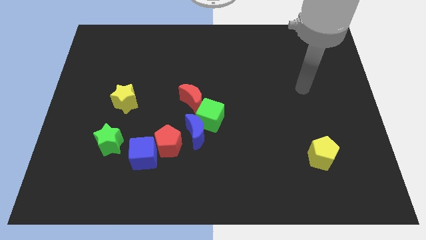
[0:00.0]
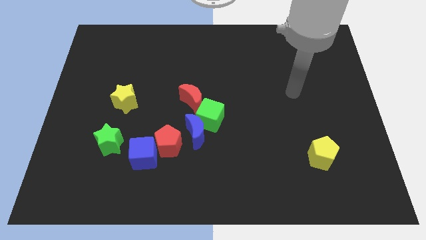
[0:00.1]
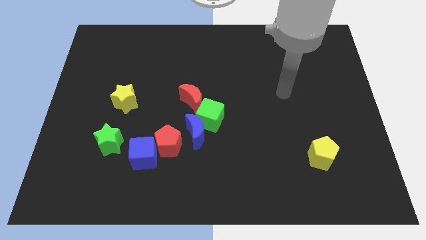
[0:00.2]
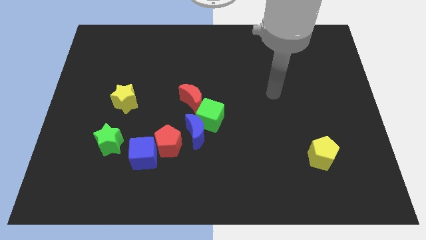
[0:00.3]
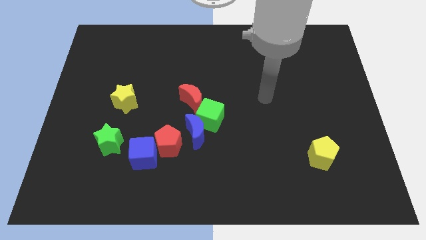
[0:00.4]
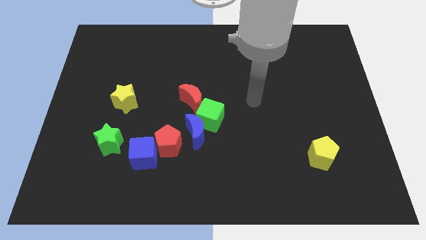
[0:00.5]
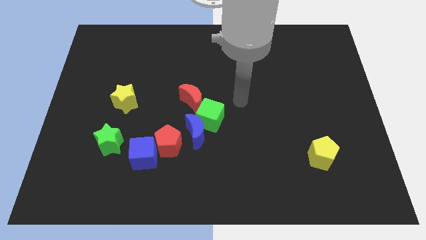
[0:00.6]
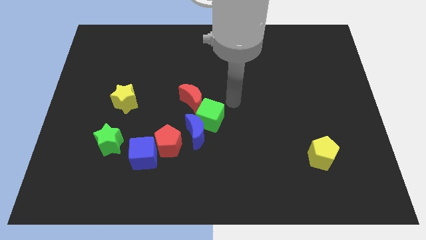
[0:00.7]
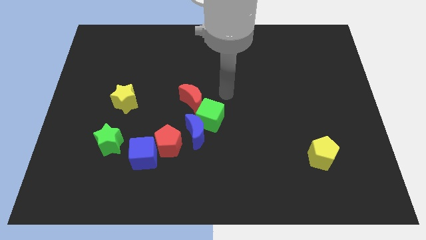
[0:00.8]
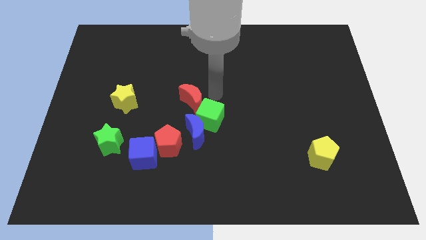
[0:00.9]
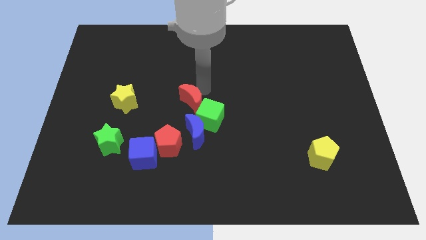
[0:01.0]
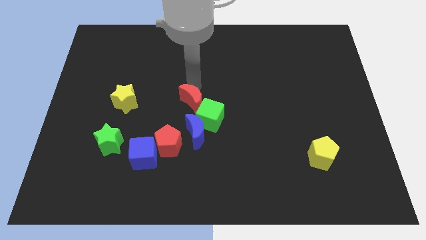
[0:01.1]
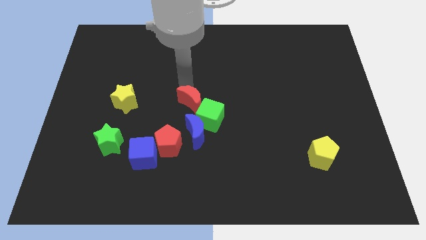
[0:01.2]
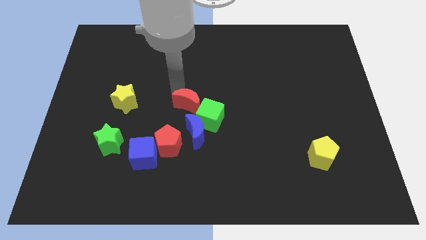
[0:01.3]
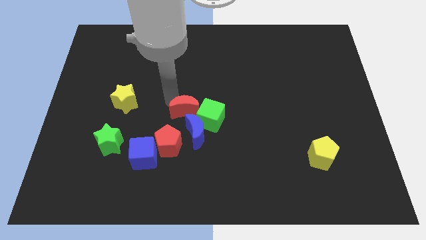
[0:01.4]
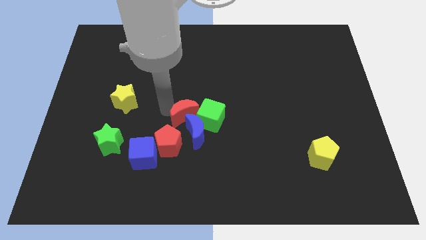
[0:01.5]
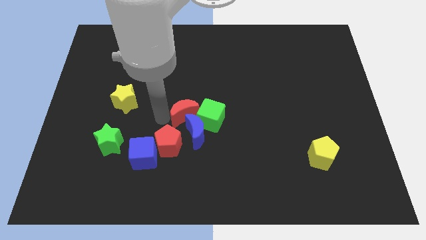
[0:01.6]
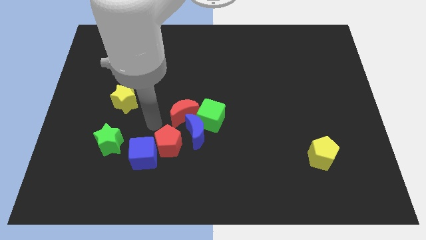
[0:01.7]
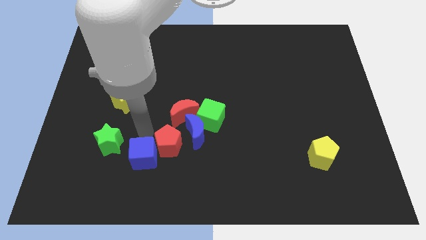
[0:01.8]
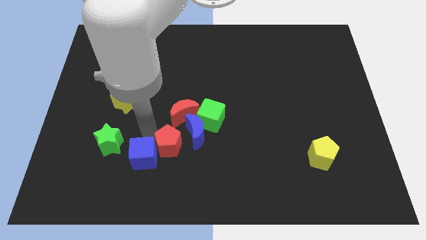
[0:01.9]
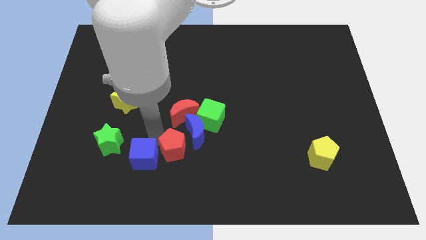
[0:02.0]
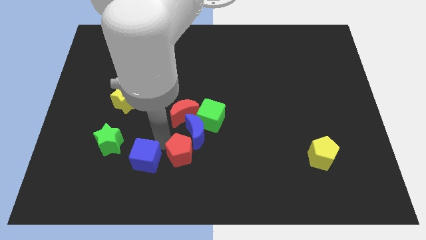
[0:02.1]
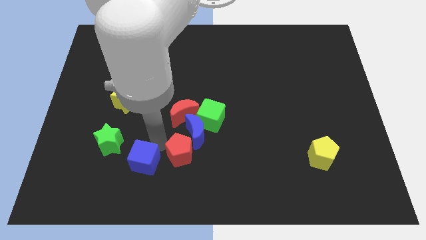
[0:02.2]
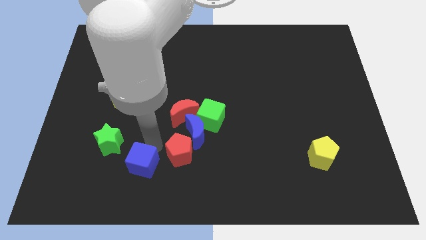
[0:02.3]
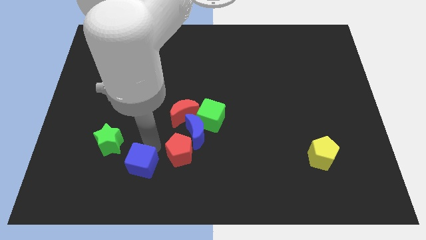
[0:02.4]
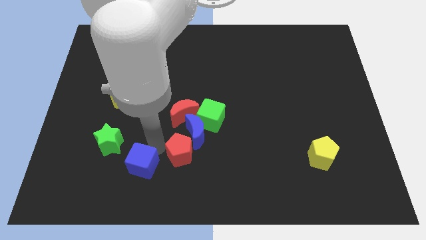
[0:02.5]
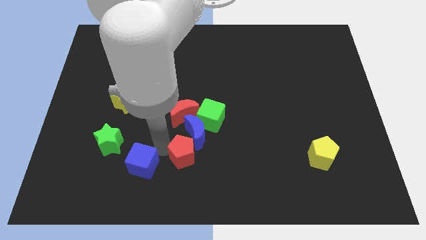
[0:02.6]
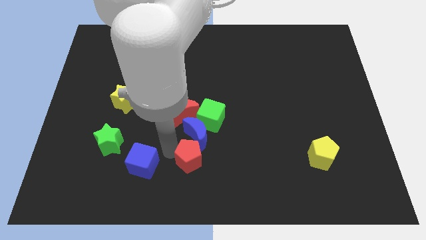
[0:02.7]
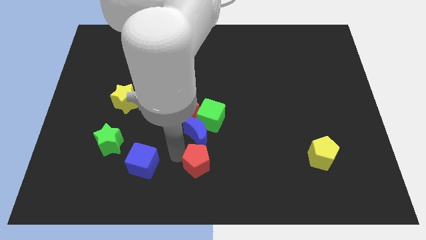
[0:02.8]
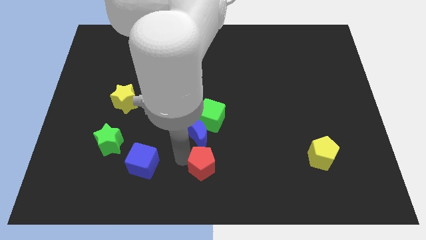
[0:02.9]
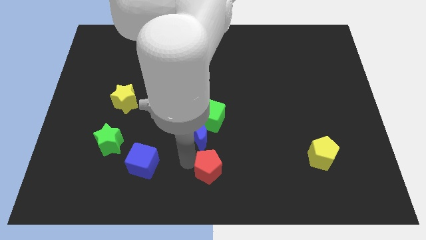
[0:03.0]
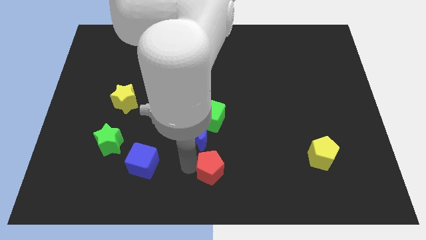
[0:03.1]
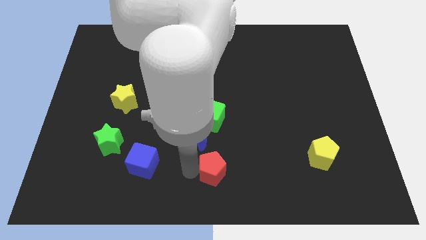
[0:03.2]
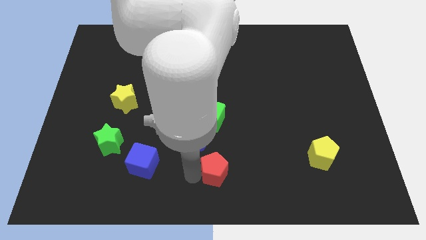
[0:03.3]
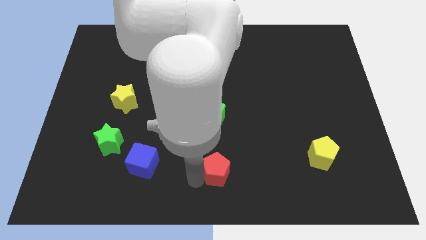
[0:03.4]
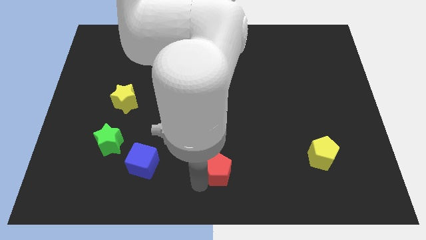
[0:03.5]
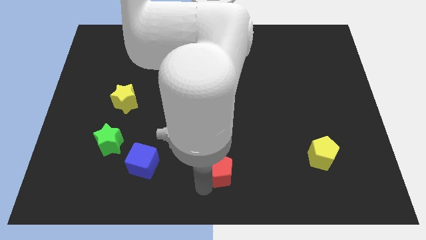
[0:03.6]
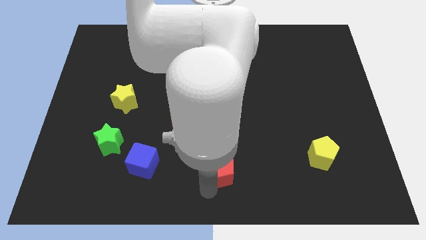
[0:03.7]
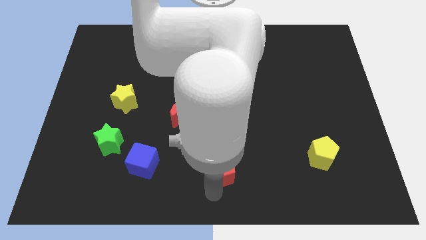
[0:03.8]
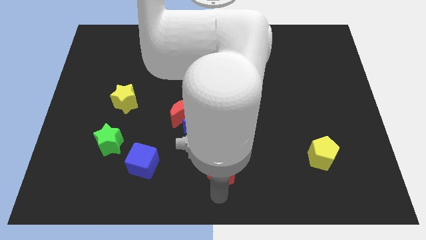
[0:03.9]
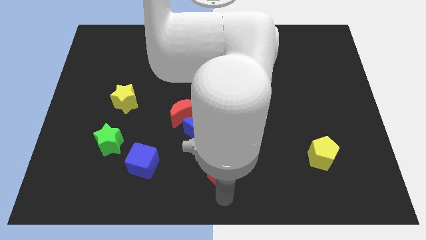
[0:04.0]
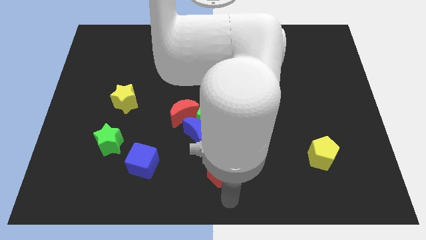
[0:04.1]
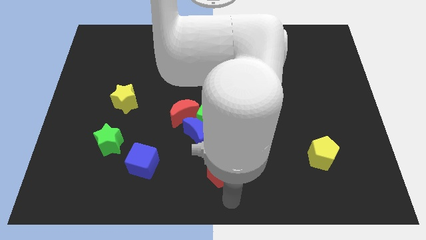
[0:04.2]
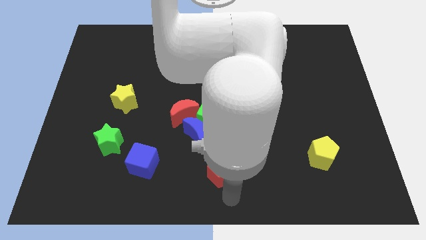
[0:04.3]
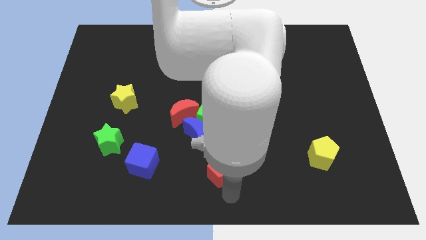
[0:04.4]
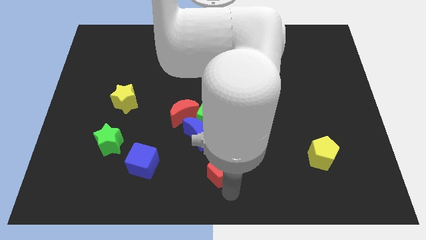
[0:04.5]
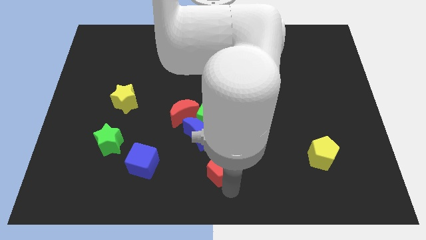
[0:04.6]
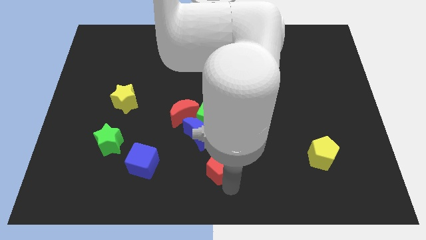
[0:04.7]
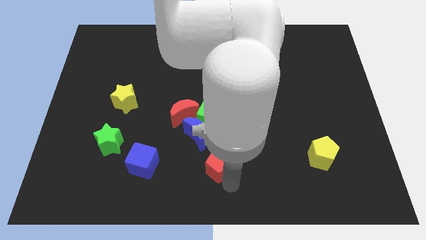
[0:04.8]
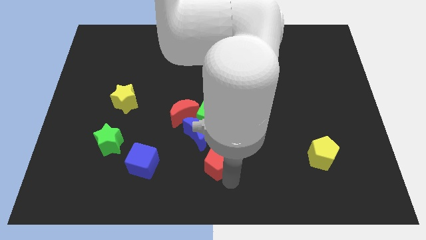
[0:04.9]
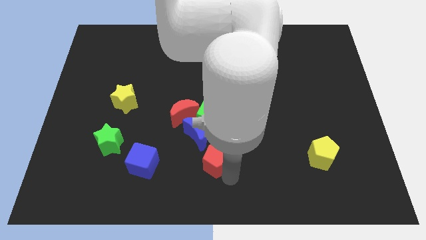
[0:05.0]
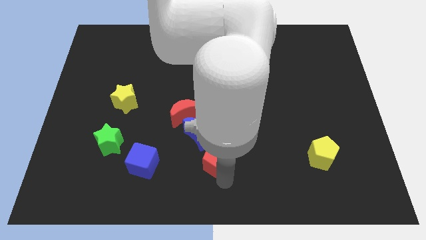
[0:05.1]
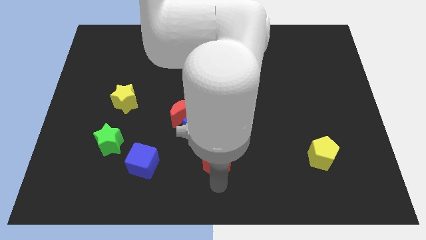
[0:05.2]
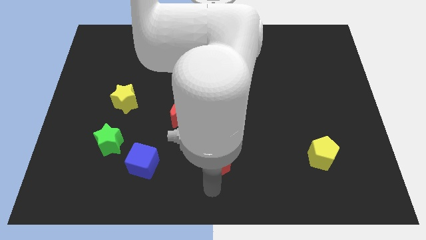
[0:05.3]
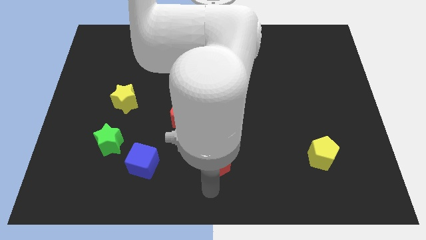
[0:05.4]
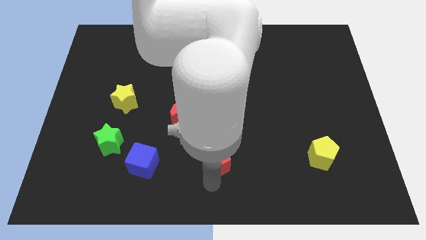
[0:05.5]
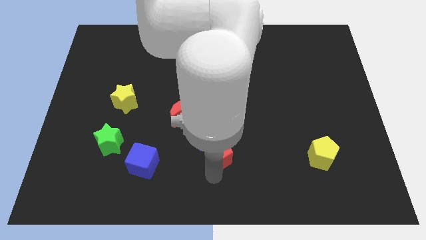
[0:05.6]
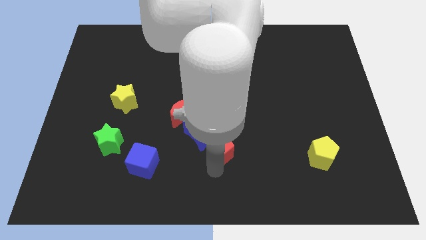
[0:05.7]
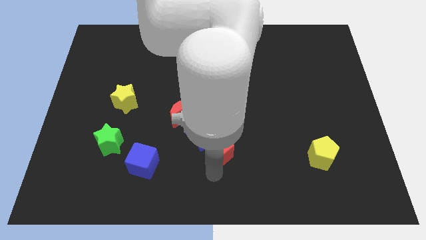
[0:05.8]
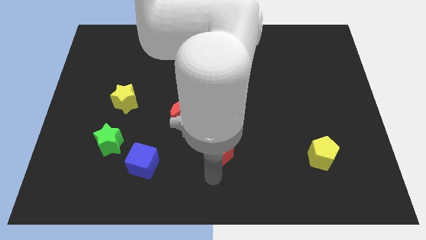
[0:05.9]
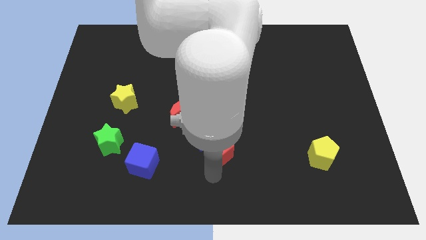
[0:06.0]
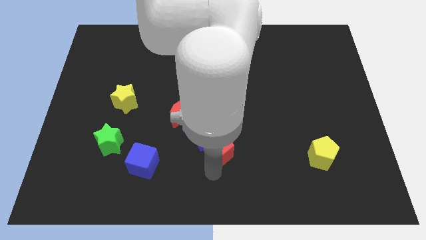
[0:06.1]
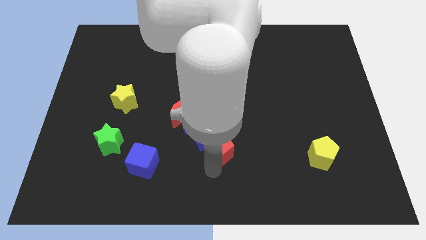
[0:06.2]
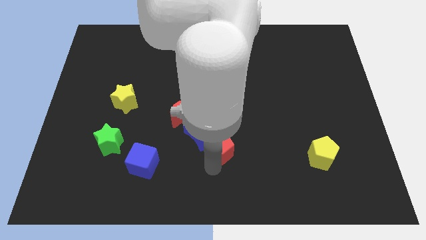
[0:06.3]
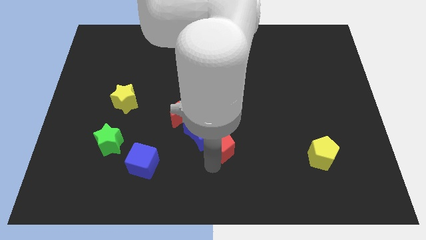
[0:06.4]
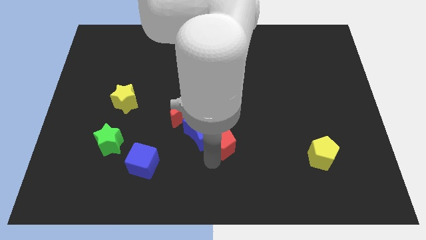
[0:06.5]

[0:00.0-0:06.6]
move the red pentagon to the middle of the board

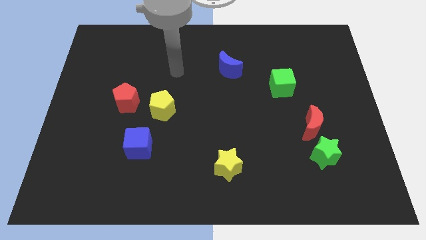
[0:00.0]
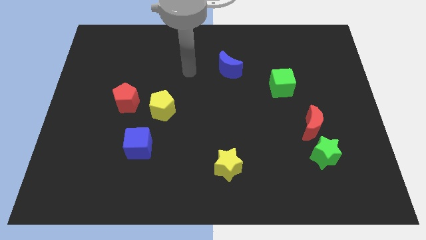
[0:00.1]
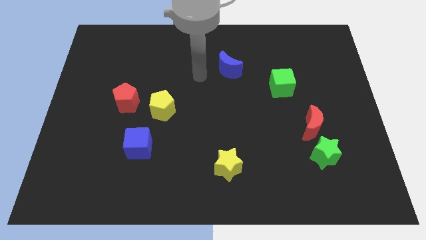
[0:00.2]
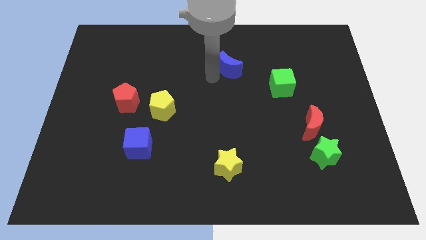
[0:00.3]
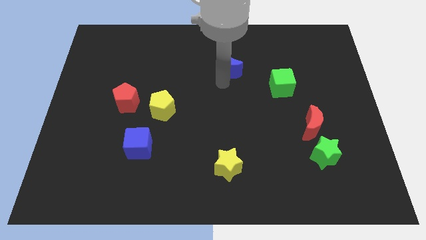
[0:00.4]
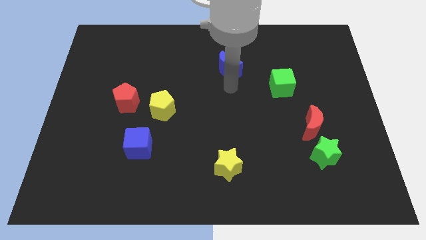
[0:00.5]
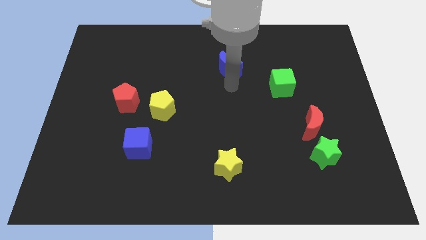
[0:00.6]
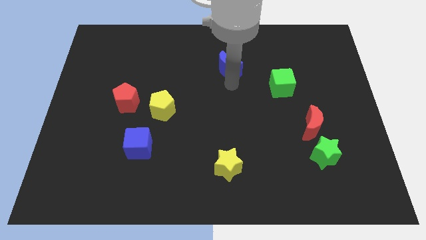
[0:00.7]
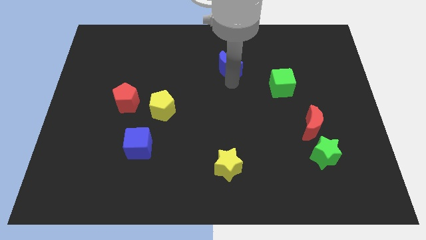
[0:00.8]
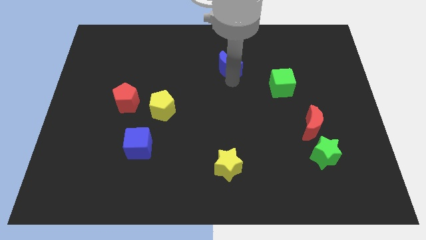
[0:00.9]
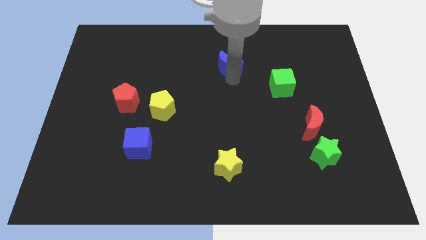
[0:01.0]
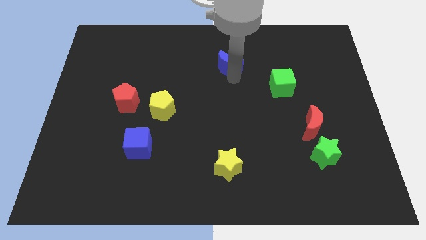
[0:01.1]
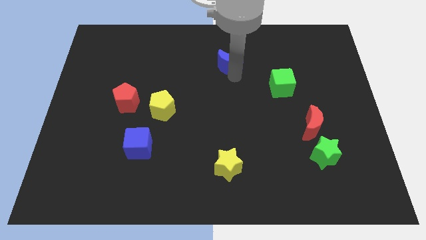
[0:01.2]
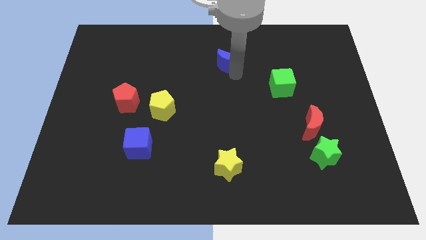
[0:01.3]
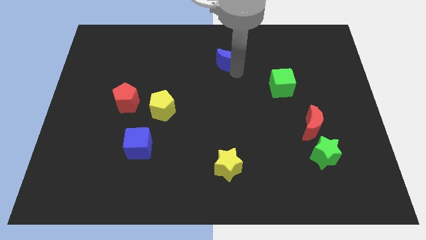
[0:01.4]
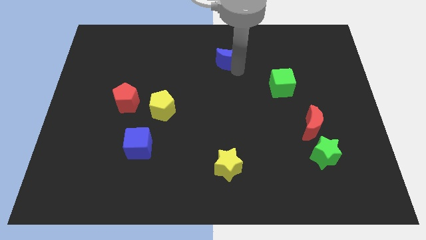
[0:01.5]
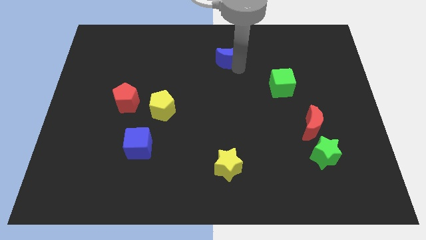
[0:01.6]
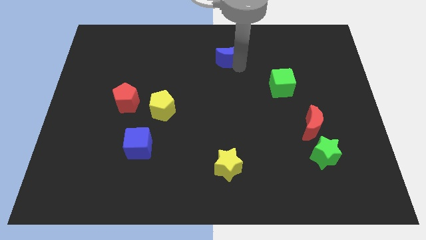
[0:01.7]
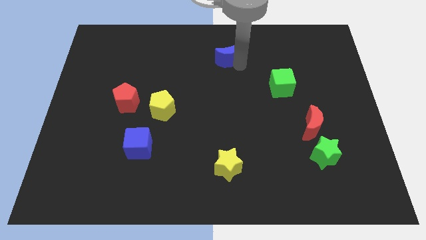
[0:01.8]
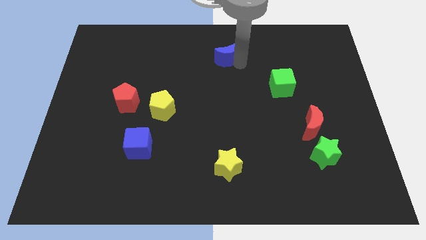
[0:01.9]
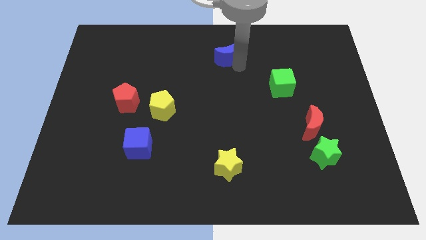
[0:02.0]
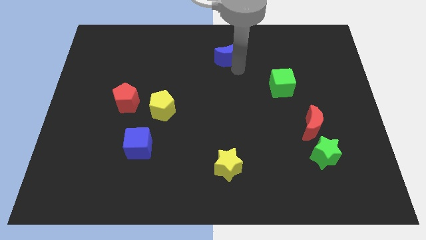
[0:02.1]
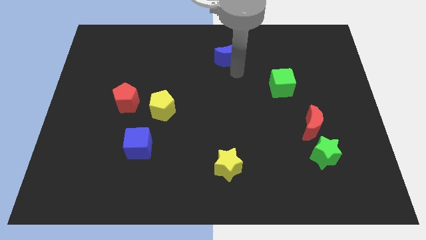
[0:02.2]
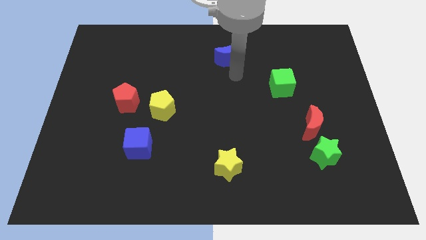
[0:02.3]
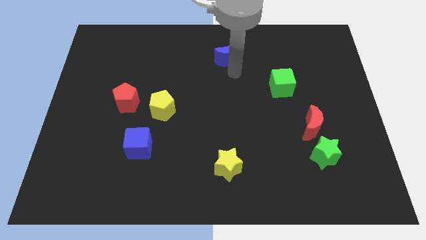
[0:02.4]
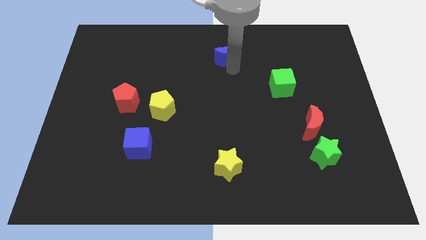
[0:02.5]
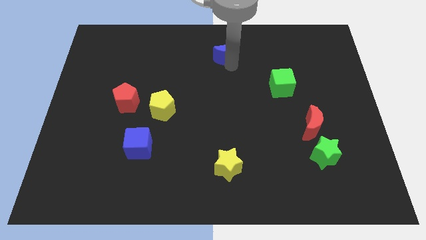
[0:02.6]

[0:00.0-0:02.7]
put the blue moon to the top side
